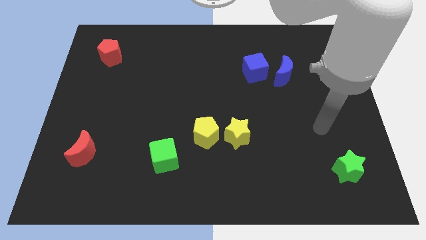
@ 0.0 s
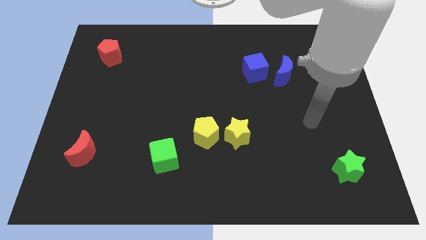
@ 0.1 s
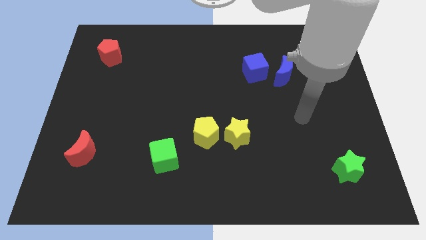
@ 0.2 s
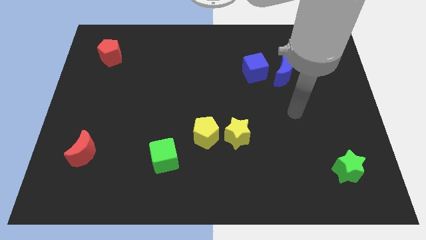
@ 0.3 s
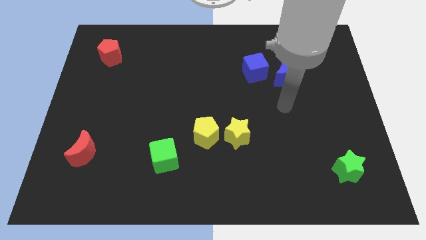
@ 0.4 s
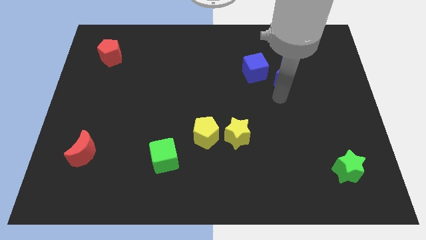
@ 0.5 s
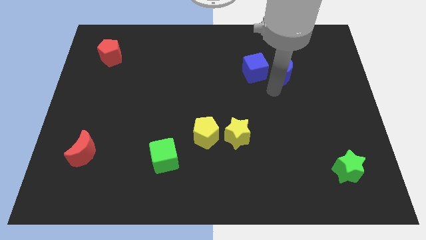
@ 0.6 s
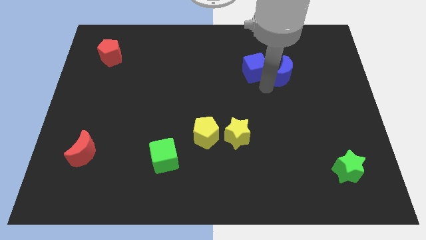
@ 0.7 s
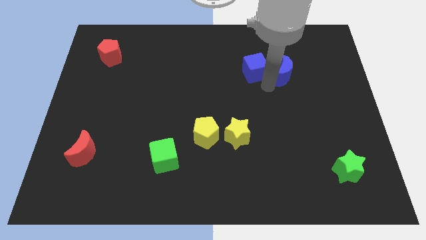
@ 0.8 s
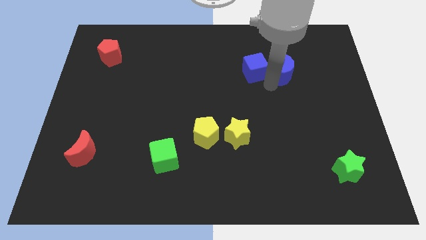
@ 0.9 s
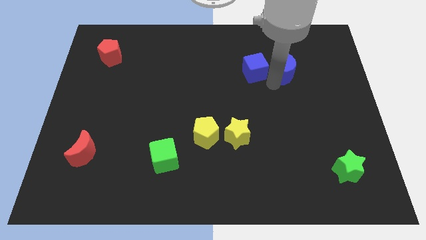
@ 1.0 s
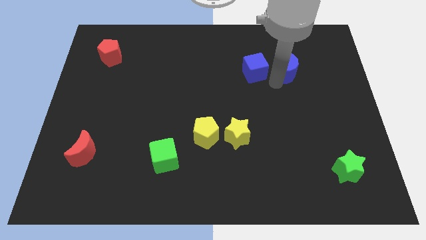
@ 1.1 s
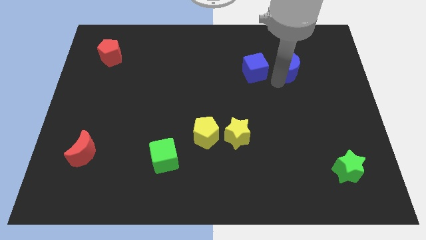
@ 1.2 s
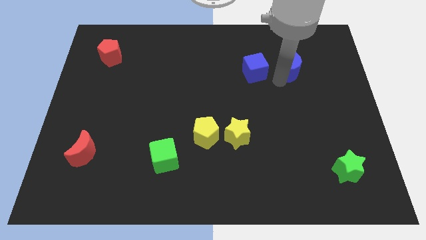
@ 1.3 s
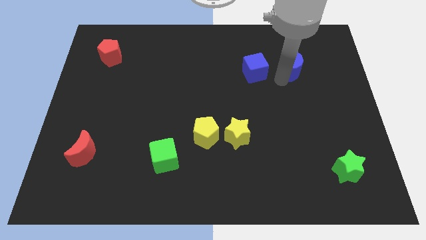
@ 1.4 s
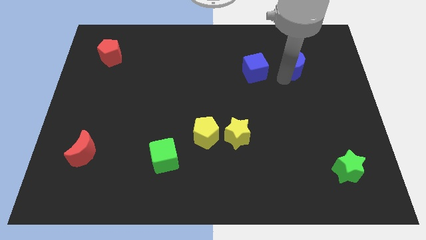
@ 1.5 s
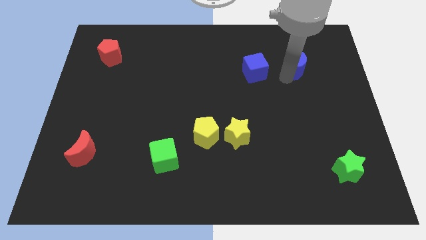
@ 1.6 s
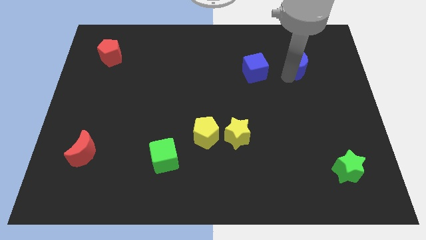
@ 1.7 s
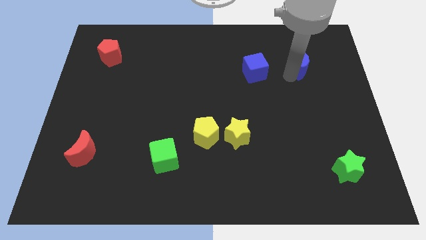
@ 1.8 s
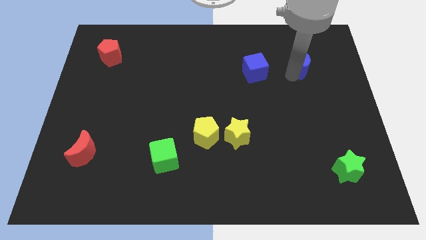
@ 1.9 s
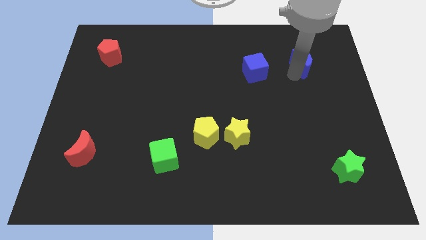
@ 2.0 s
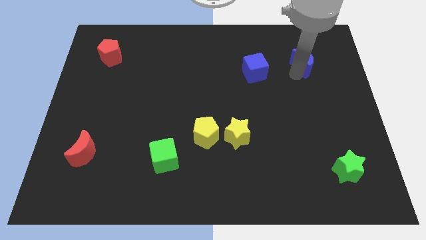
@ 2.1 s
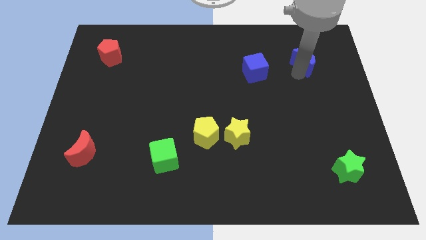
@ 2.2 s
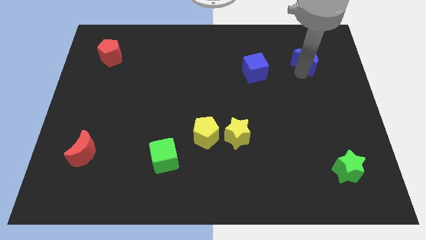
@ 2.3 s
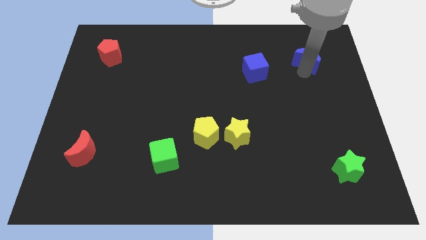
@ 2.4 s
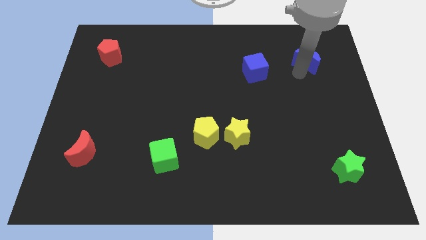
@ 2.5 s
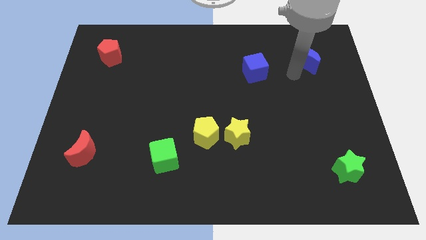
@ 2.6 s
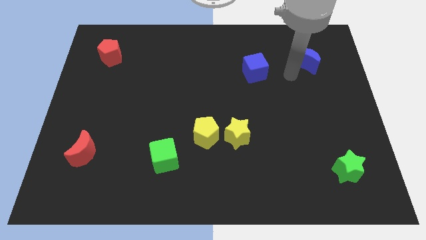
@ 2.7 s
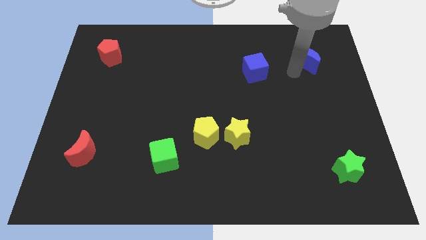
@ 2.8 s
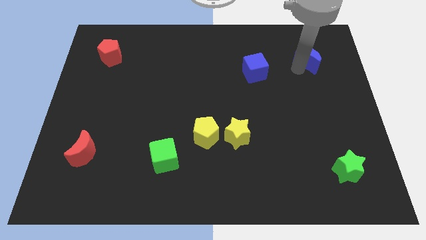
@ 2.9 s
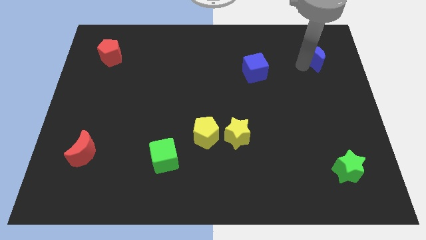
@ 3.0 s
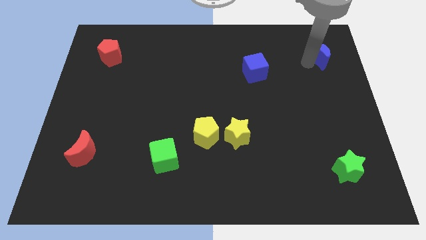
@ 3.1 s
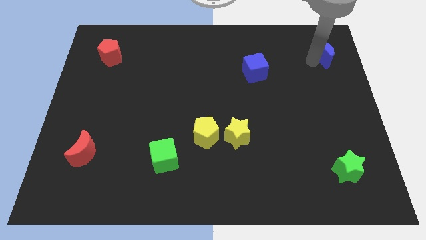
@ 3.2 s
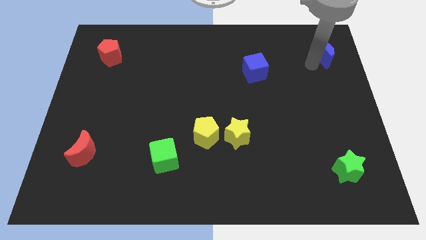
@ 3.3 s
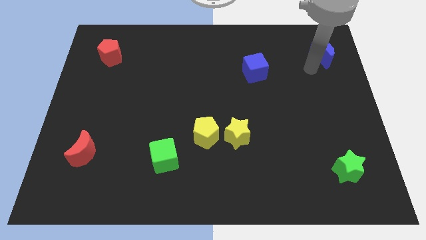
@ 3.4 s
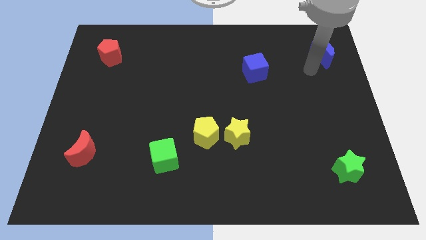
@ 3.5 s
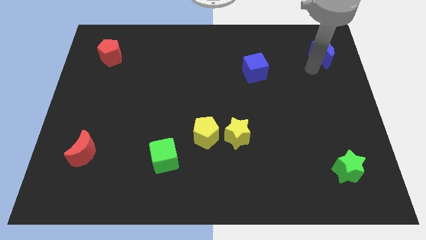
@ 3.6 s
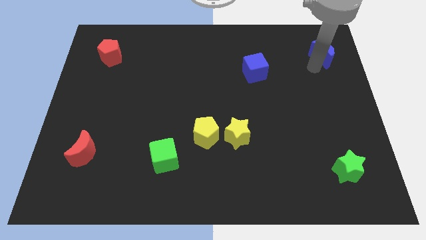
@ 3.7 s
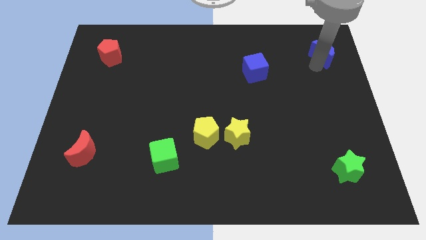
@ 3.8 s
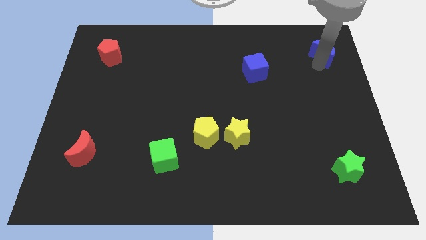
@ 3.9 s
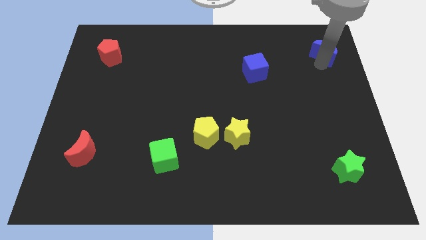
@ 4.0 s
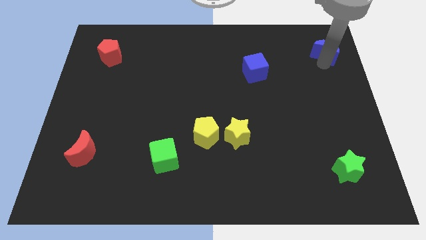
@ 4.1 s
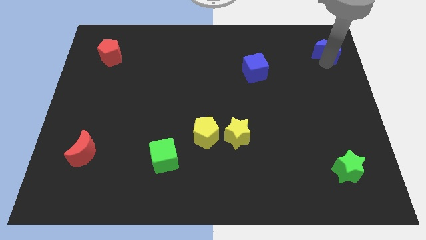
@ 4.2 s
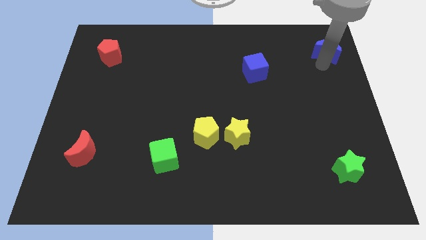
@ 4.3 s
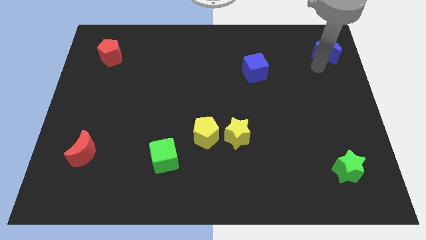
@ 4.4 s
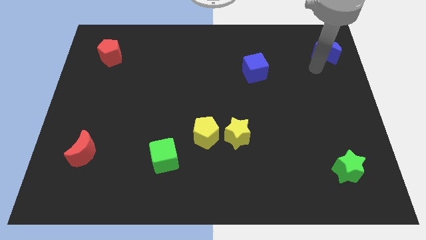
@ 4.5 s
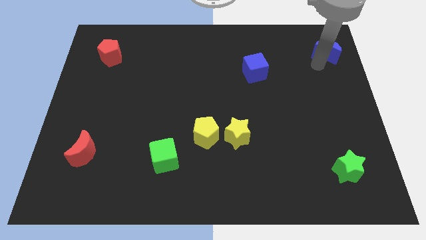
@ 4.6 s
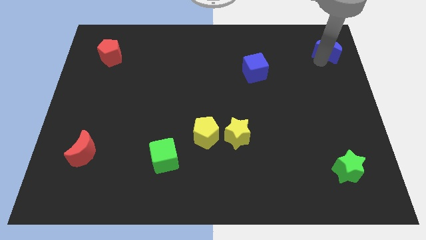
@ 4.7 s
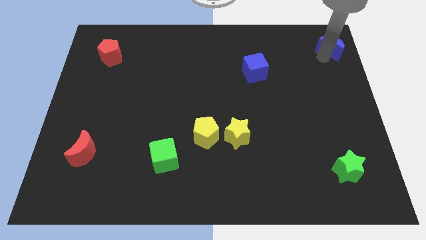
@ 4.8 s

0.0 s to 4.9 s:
push the blue moon to the upper right corner

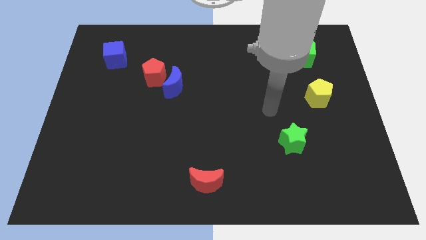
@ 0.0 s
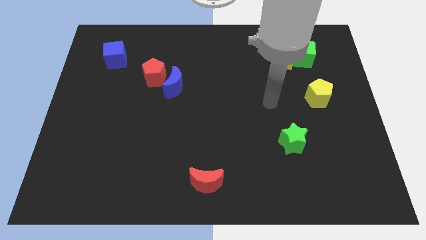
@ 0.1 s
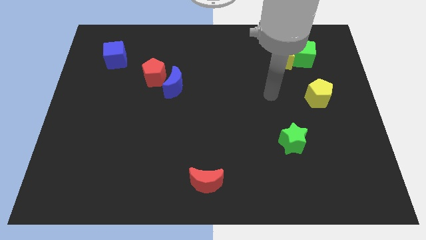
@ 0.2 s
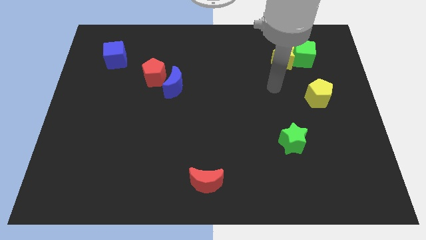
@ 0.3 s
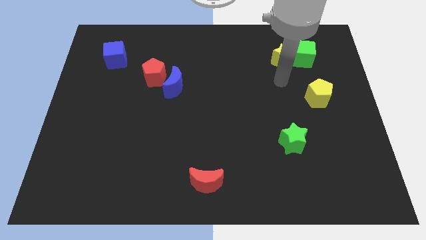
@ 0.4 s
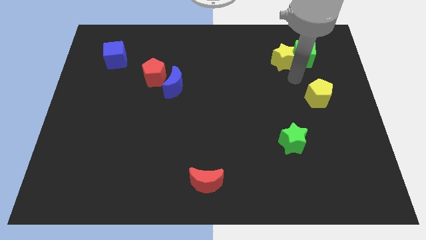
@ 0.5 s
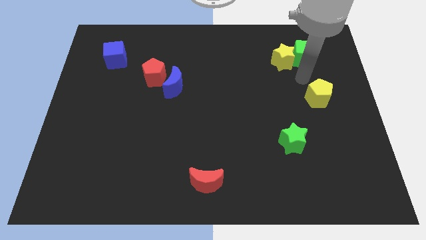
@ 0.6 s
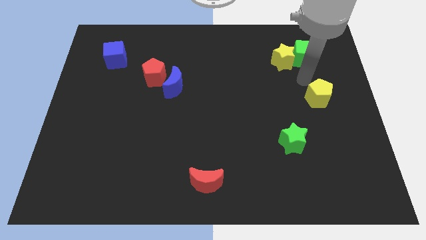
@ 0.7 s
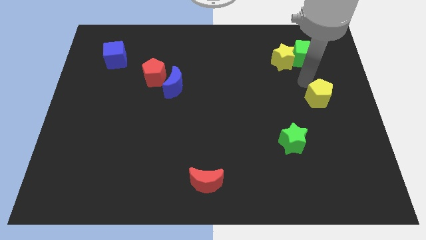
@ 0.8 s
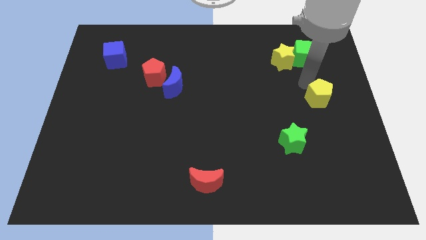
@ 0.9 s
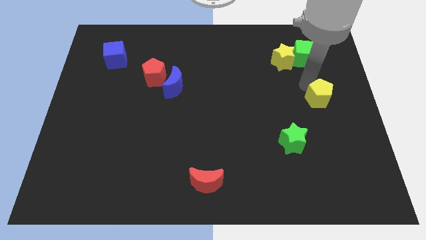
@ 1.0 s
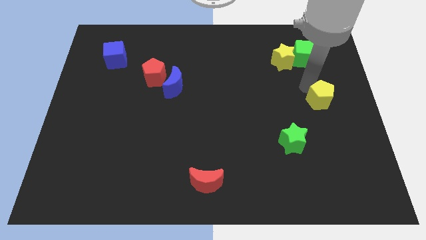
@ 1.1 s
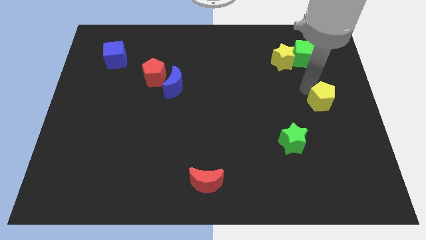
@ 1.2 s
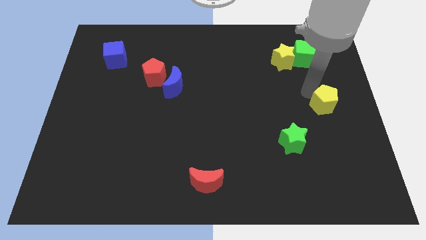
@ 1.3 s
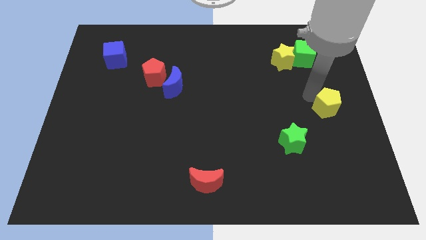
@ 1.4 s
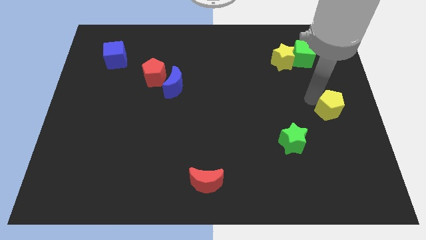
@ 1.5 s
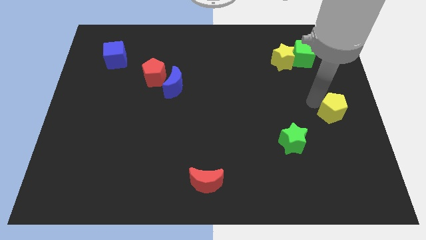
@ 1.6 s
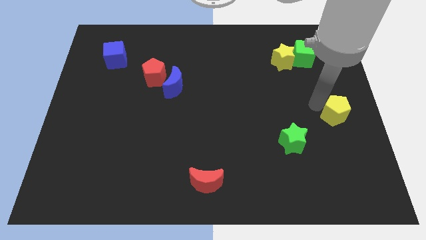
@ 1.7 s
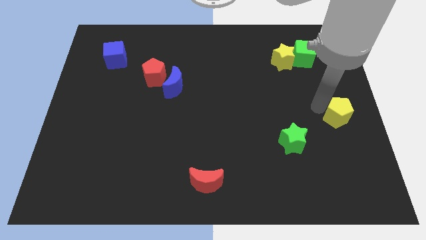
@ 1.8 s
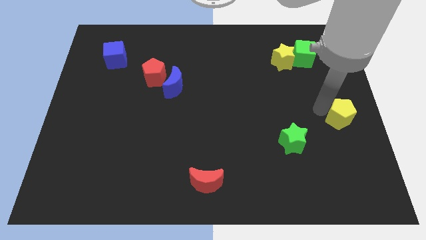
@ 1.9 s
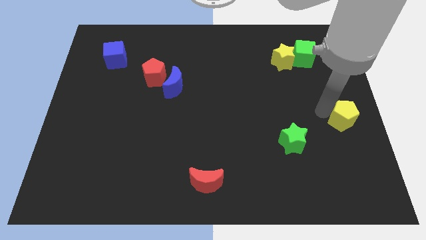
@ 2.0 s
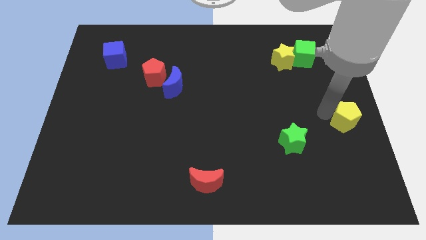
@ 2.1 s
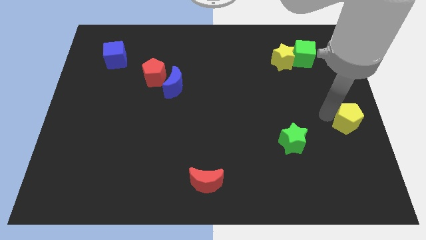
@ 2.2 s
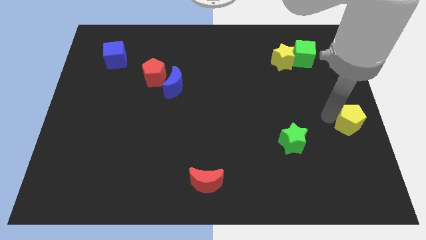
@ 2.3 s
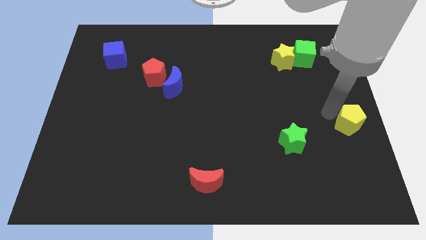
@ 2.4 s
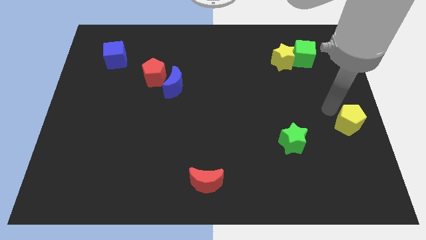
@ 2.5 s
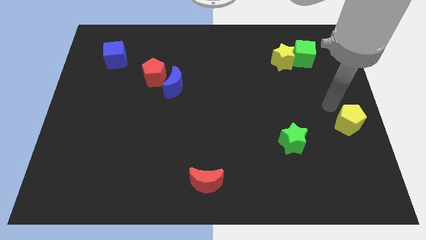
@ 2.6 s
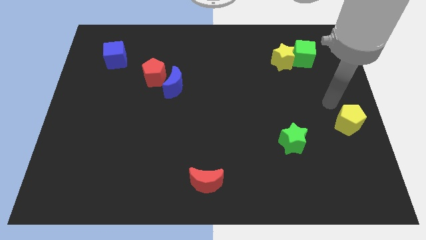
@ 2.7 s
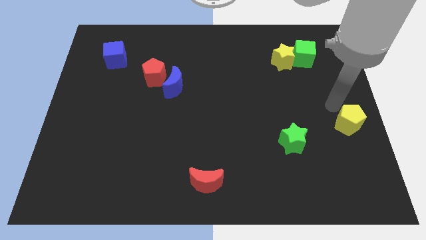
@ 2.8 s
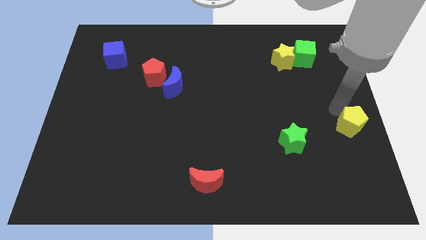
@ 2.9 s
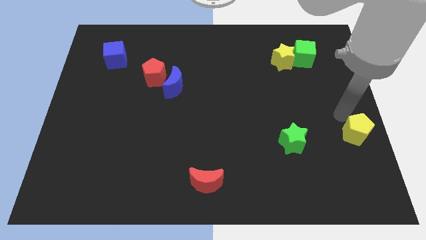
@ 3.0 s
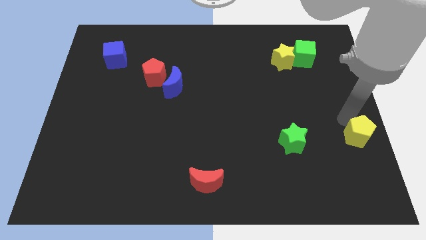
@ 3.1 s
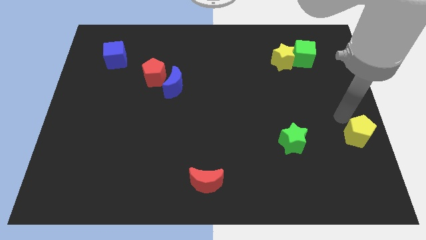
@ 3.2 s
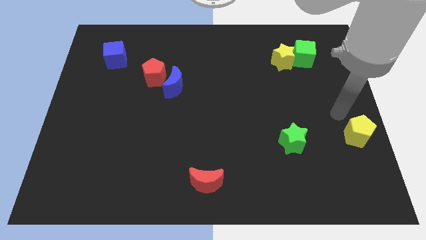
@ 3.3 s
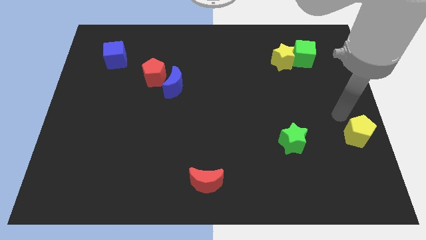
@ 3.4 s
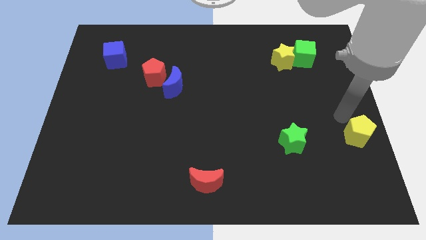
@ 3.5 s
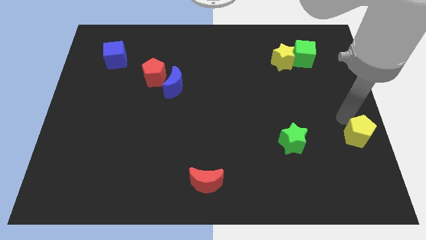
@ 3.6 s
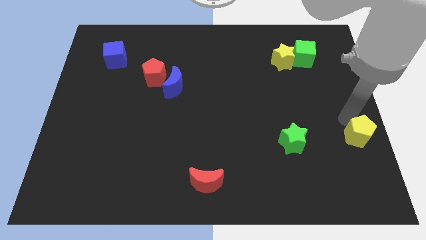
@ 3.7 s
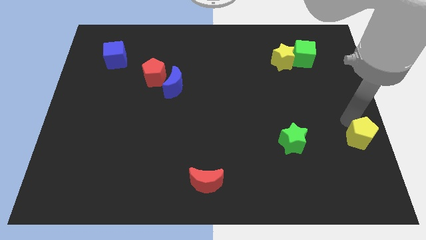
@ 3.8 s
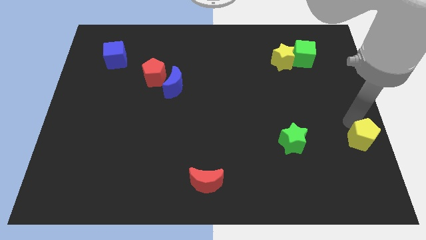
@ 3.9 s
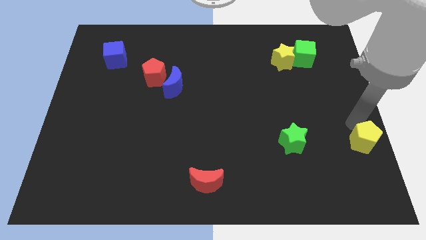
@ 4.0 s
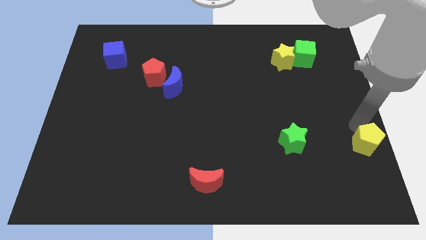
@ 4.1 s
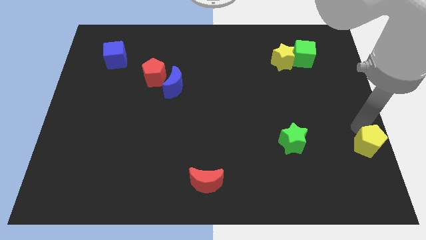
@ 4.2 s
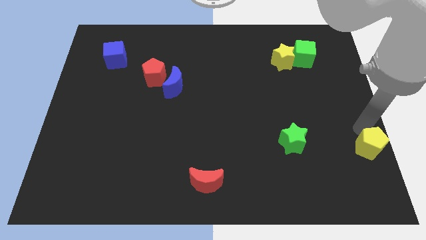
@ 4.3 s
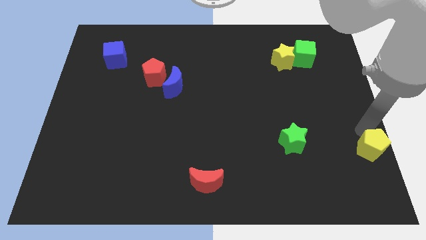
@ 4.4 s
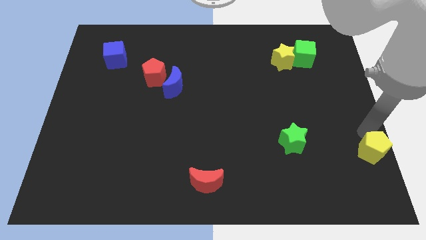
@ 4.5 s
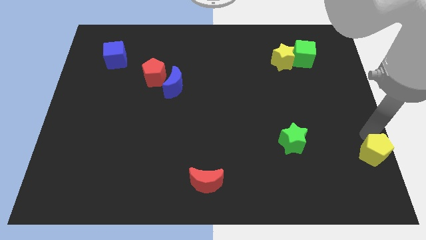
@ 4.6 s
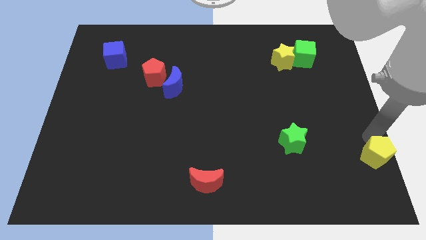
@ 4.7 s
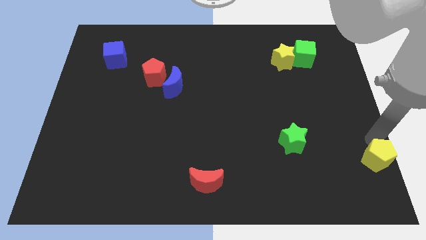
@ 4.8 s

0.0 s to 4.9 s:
move the yellow pentagon to the lower right corner
